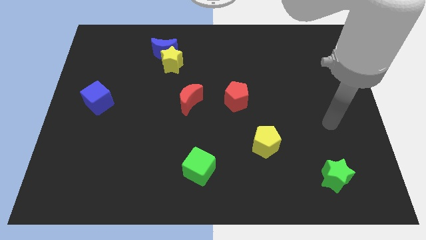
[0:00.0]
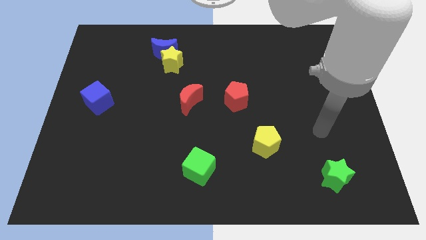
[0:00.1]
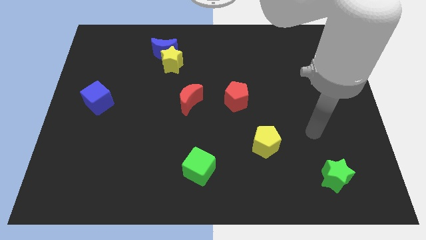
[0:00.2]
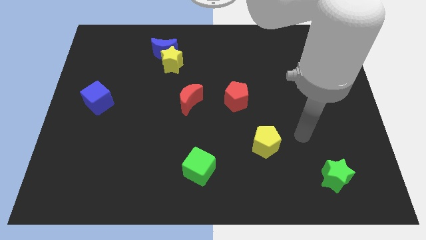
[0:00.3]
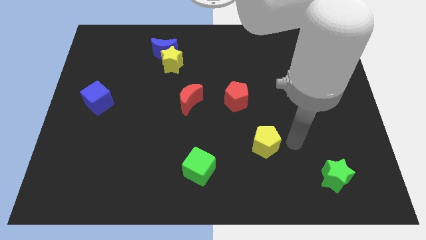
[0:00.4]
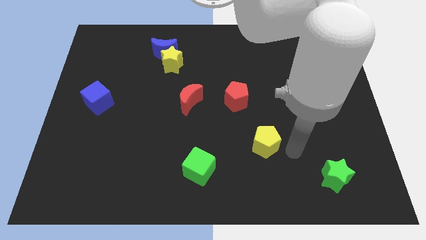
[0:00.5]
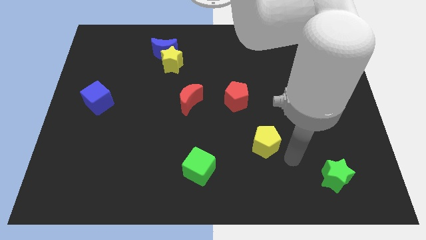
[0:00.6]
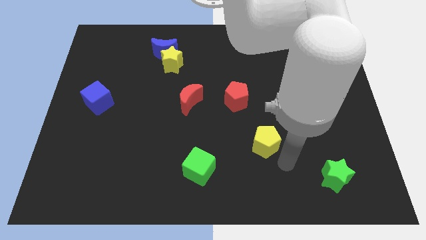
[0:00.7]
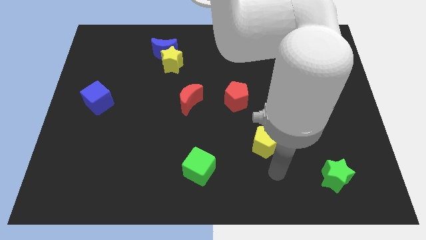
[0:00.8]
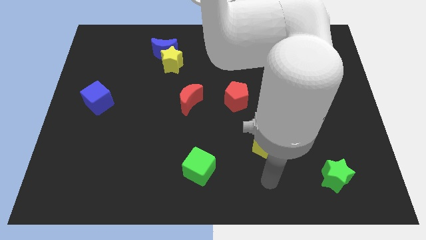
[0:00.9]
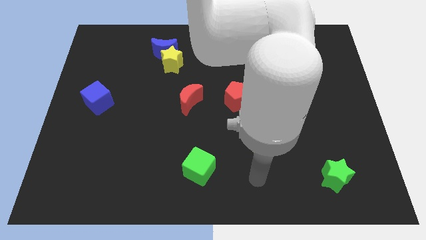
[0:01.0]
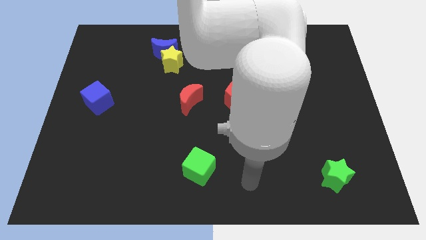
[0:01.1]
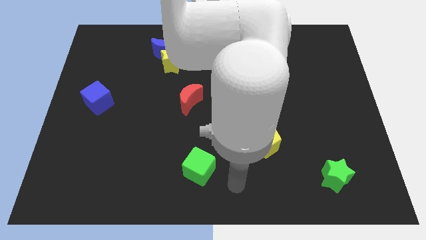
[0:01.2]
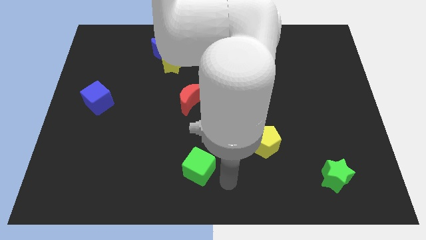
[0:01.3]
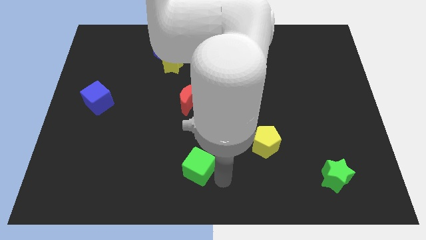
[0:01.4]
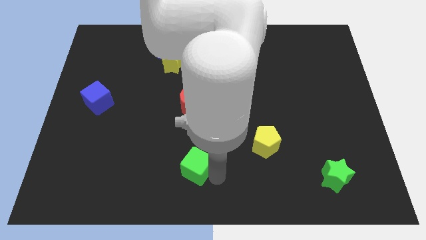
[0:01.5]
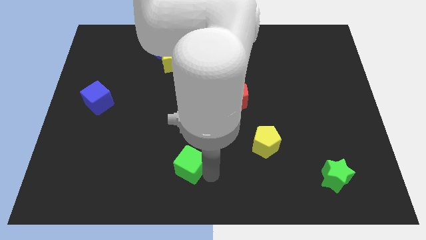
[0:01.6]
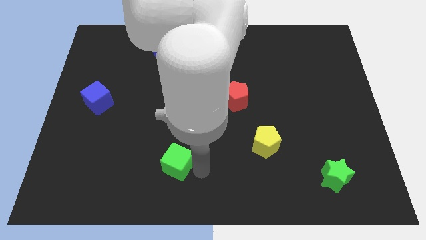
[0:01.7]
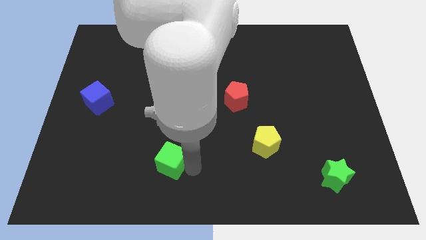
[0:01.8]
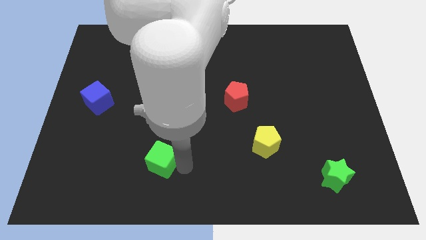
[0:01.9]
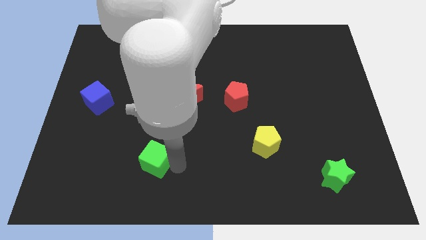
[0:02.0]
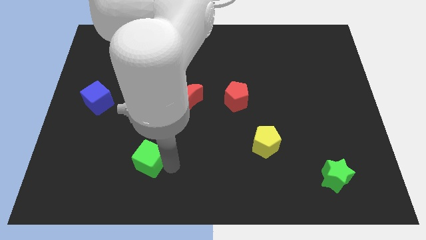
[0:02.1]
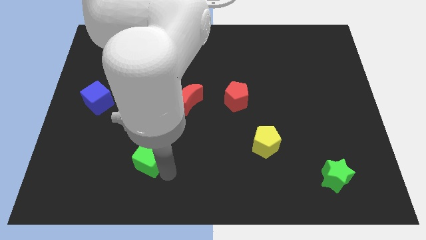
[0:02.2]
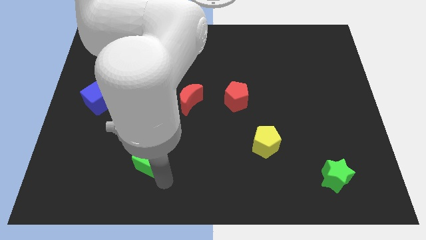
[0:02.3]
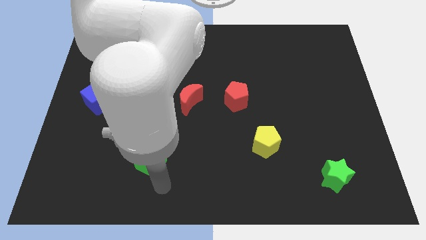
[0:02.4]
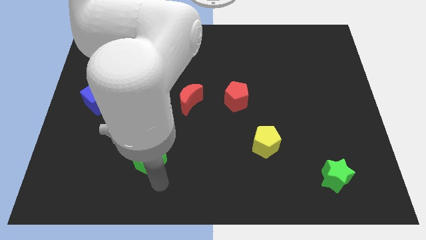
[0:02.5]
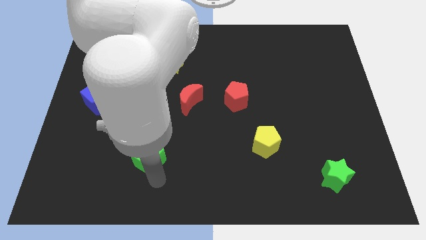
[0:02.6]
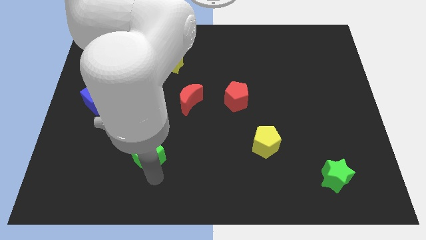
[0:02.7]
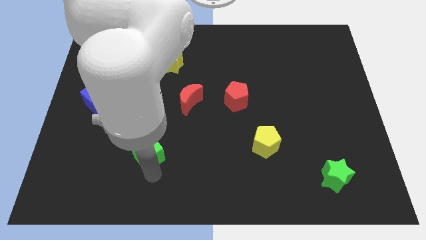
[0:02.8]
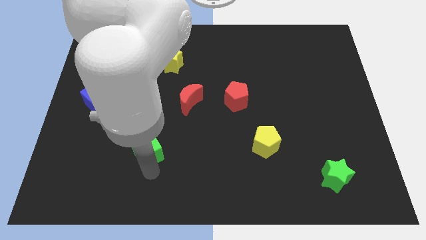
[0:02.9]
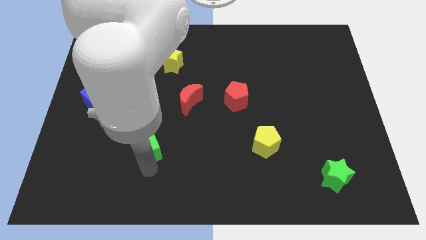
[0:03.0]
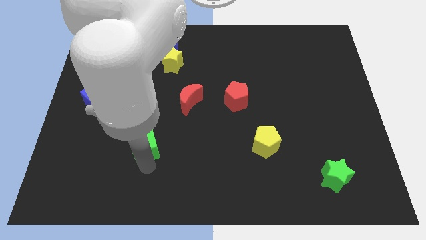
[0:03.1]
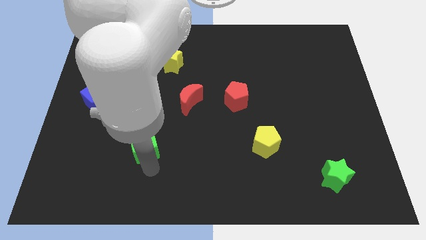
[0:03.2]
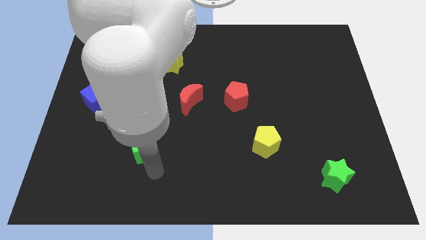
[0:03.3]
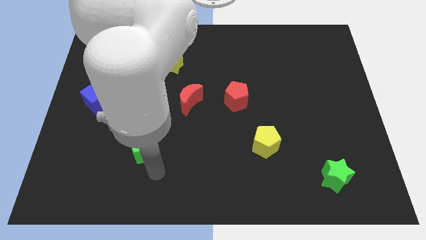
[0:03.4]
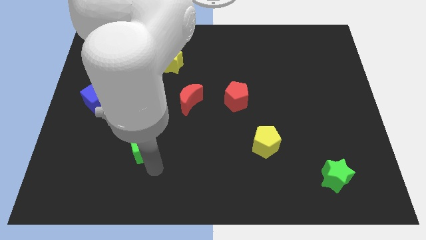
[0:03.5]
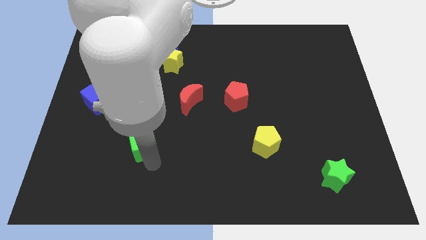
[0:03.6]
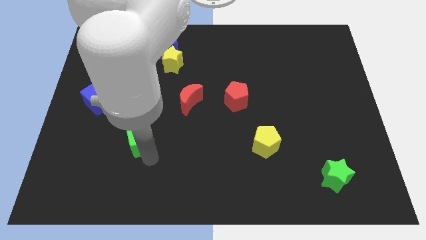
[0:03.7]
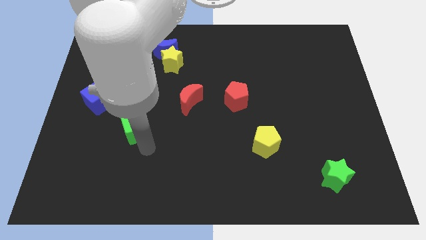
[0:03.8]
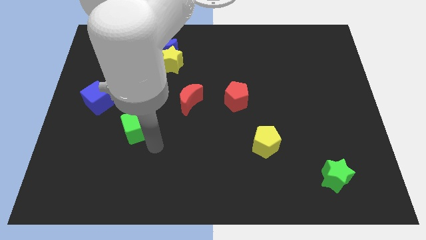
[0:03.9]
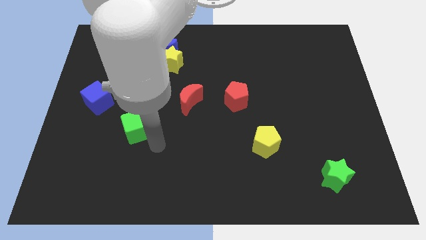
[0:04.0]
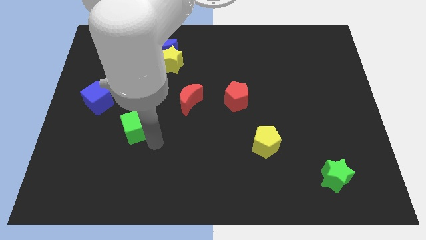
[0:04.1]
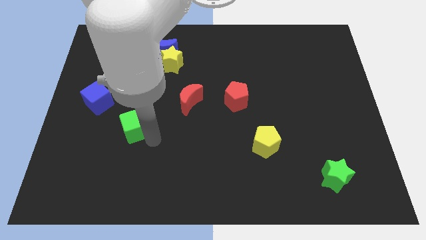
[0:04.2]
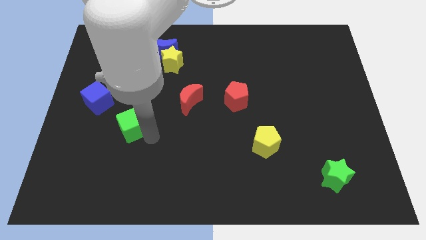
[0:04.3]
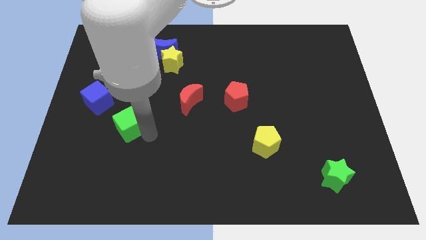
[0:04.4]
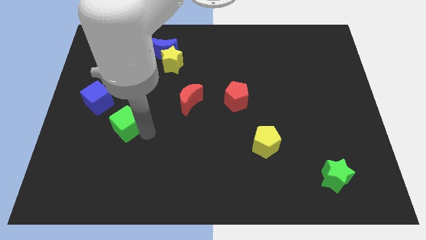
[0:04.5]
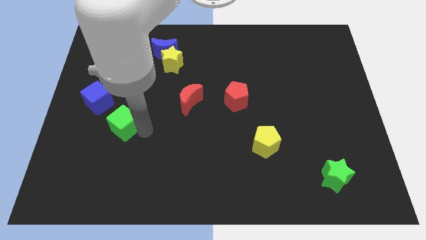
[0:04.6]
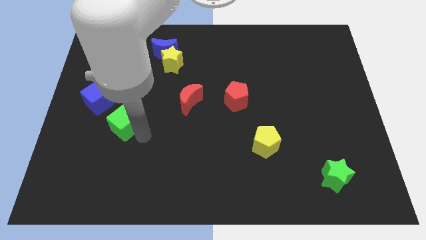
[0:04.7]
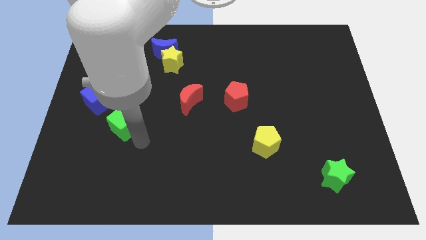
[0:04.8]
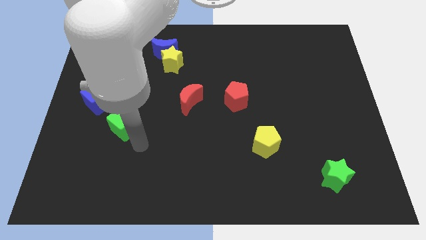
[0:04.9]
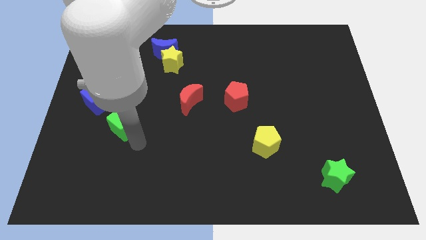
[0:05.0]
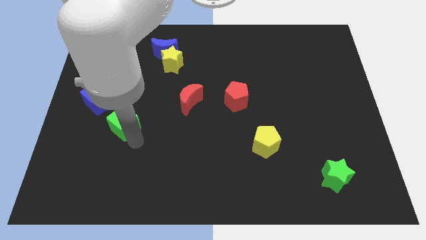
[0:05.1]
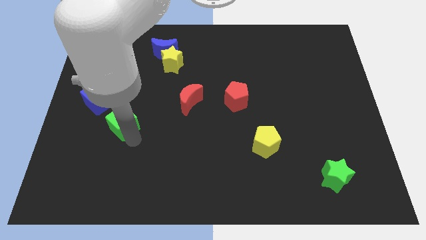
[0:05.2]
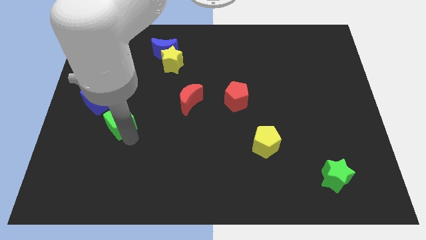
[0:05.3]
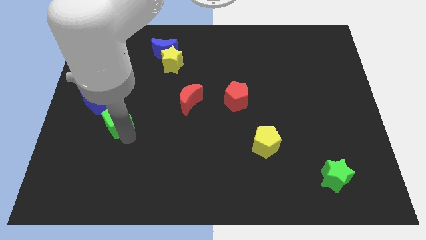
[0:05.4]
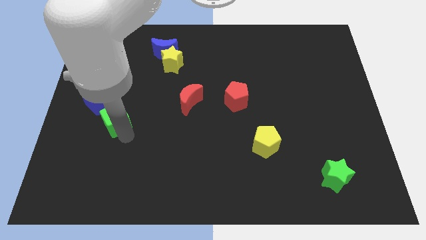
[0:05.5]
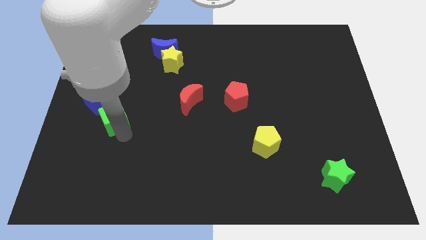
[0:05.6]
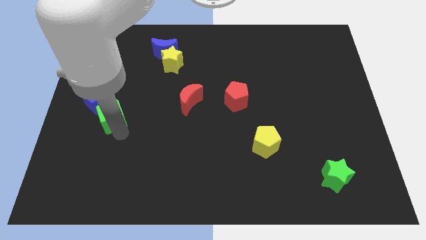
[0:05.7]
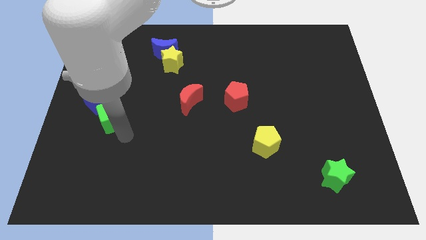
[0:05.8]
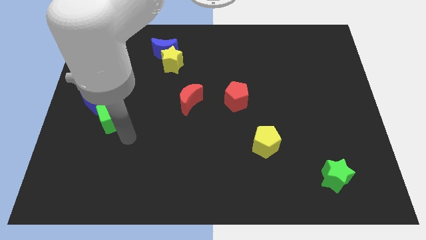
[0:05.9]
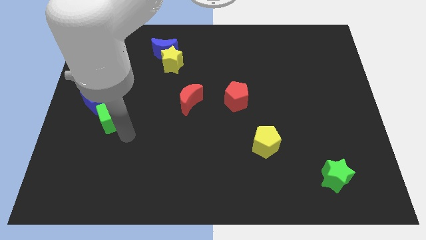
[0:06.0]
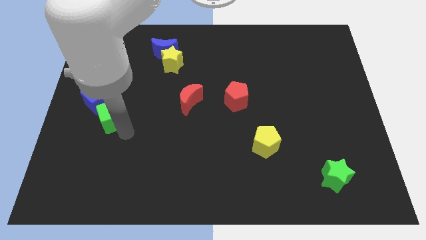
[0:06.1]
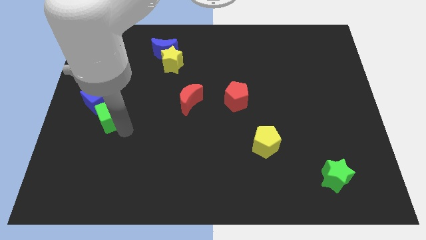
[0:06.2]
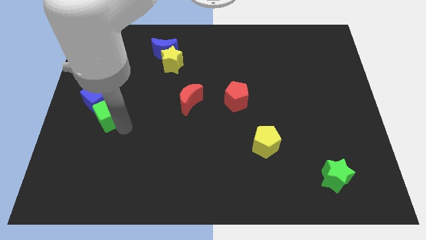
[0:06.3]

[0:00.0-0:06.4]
slide the green cube close to the blue cube
